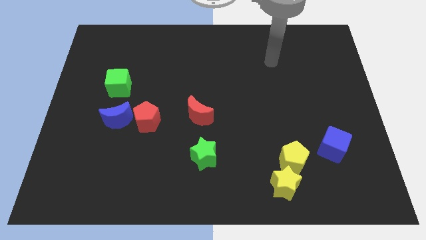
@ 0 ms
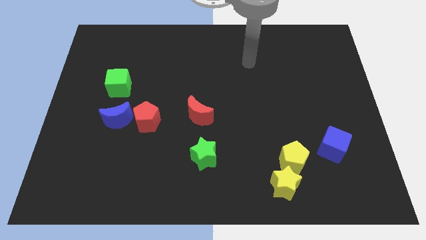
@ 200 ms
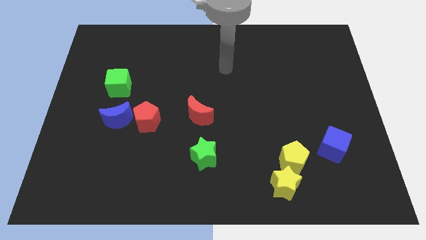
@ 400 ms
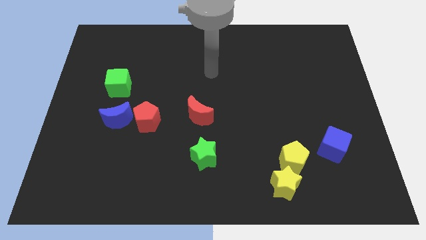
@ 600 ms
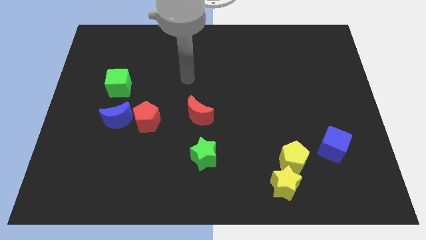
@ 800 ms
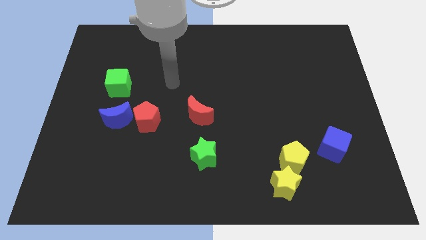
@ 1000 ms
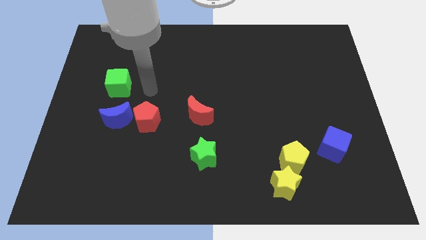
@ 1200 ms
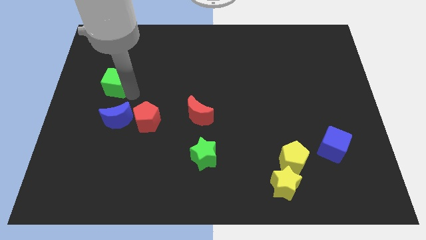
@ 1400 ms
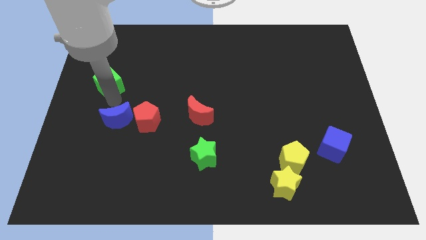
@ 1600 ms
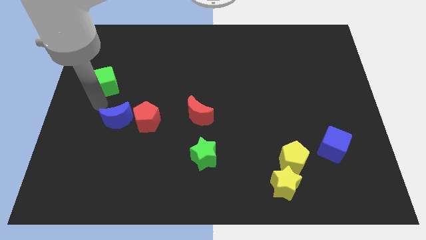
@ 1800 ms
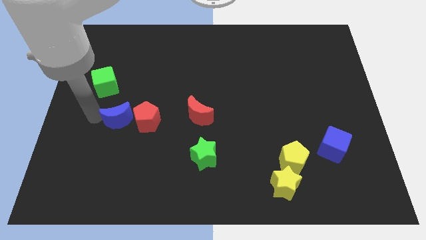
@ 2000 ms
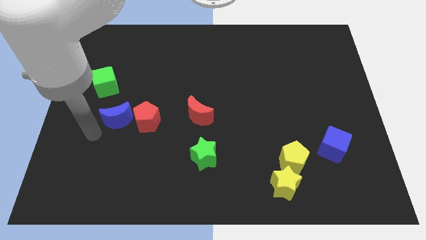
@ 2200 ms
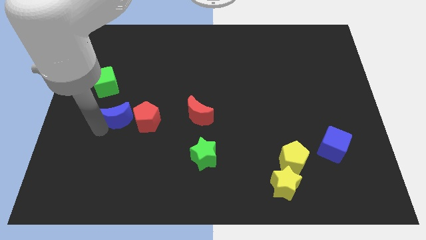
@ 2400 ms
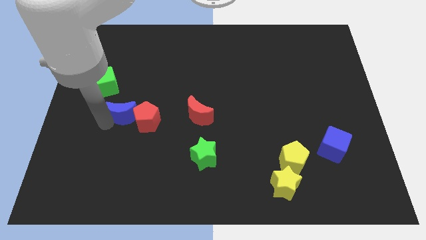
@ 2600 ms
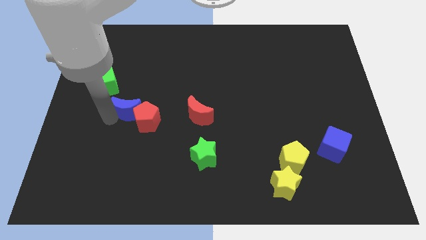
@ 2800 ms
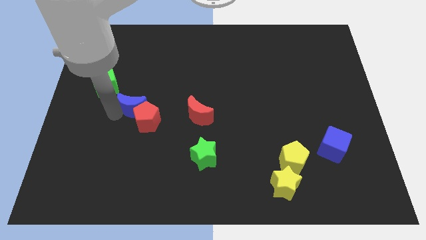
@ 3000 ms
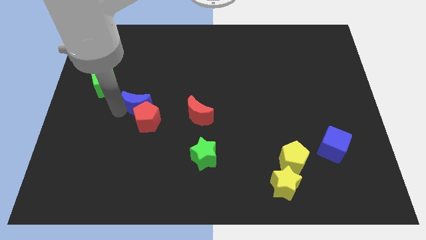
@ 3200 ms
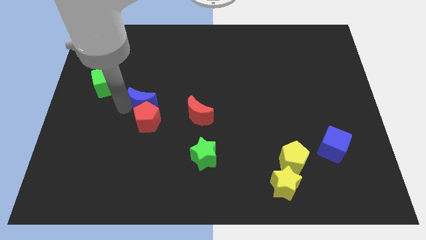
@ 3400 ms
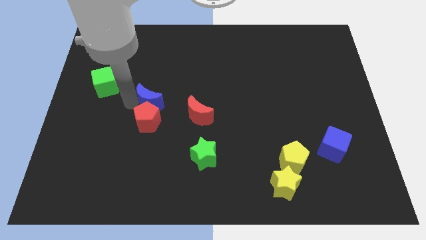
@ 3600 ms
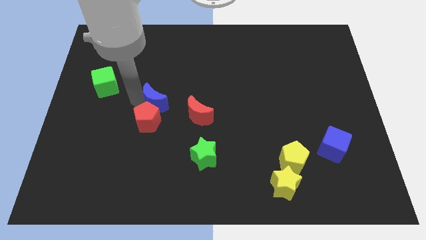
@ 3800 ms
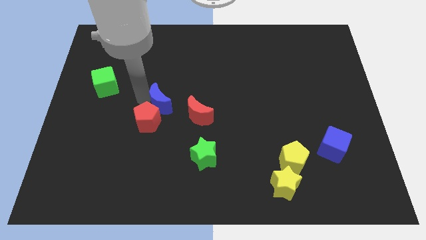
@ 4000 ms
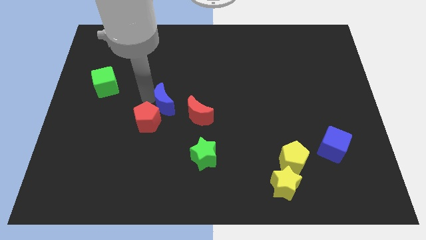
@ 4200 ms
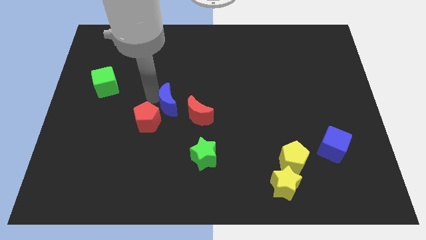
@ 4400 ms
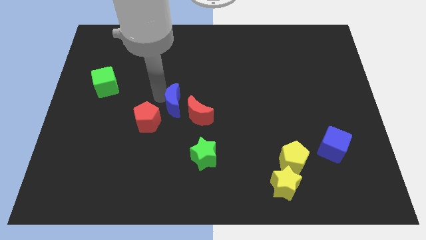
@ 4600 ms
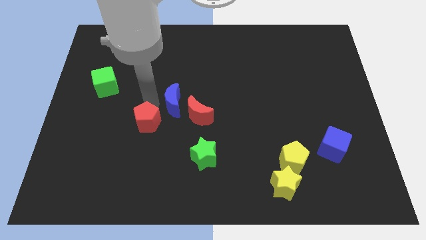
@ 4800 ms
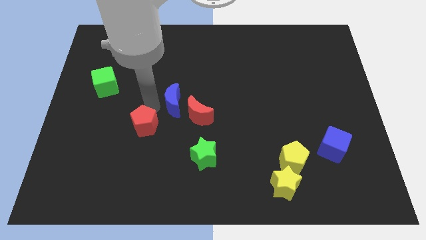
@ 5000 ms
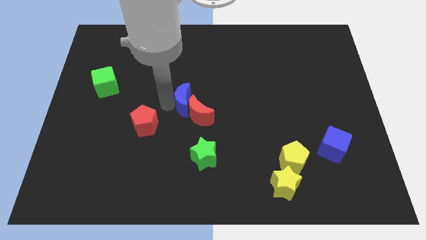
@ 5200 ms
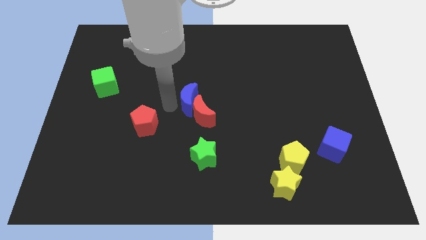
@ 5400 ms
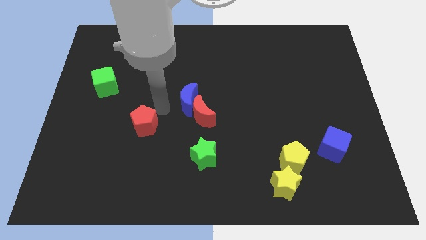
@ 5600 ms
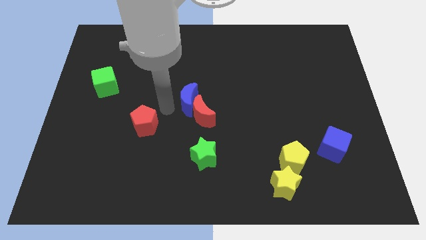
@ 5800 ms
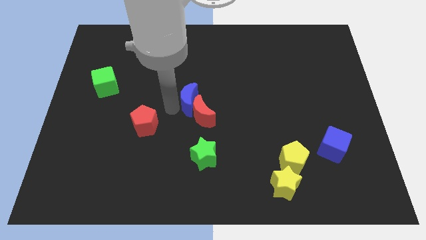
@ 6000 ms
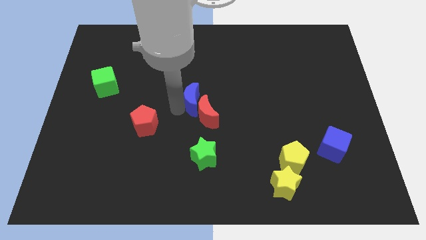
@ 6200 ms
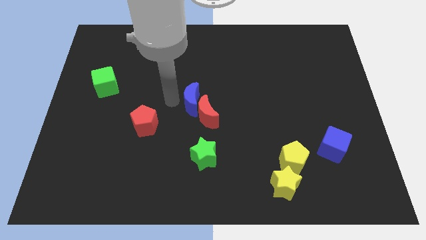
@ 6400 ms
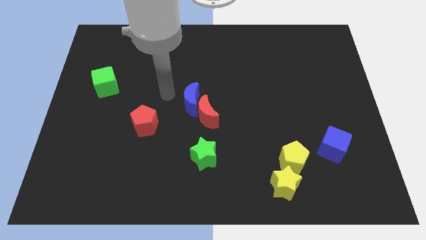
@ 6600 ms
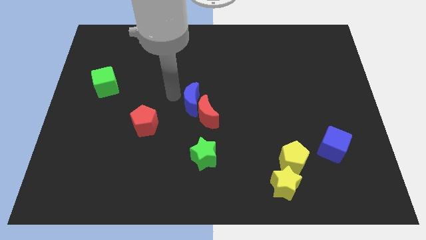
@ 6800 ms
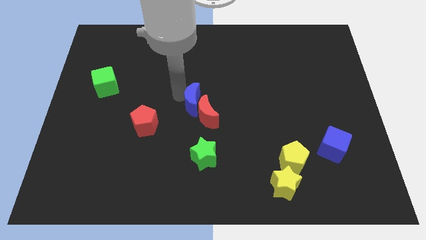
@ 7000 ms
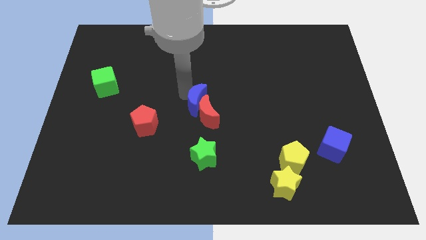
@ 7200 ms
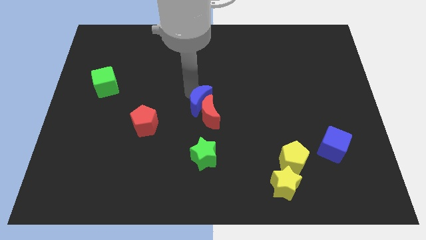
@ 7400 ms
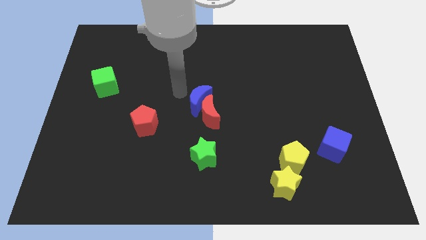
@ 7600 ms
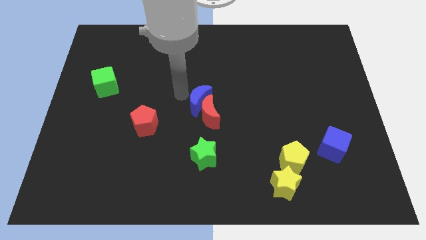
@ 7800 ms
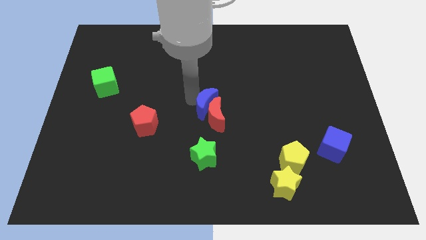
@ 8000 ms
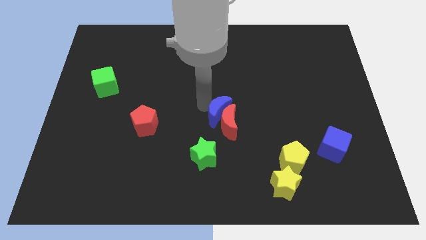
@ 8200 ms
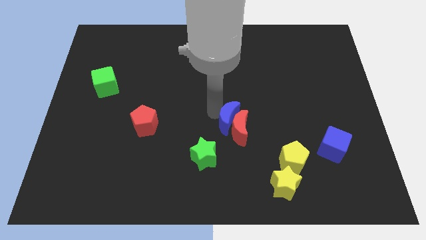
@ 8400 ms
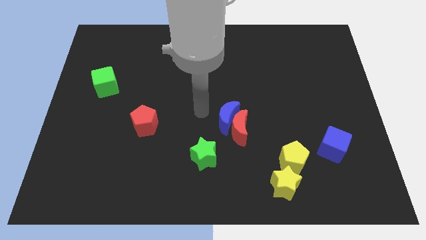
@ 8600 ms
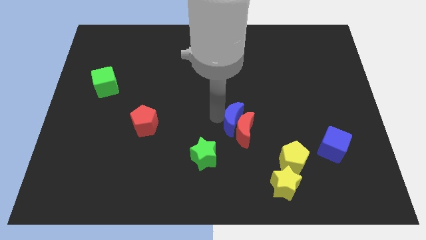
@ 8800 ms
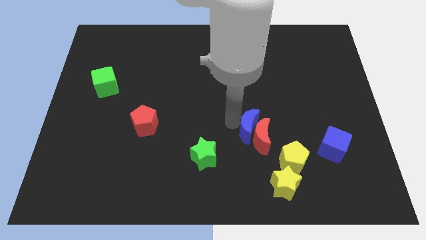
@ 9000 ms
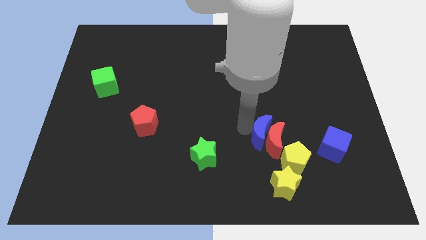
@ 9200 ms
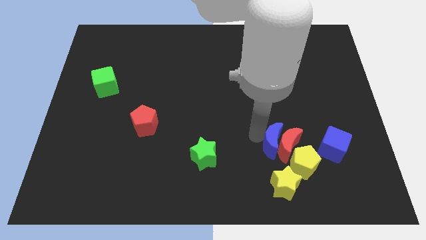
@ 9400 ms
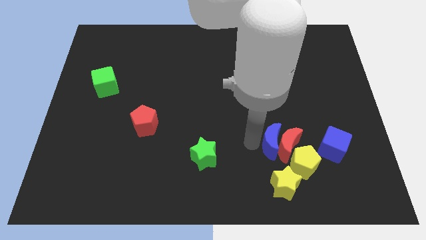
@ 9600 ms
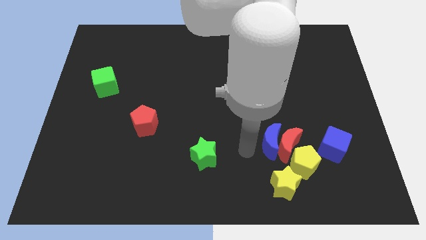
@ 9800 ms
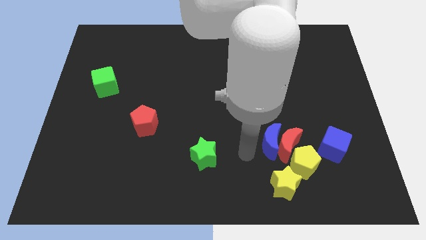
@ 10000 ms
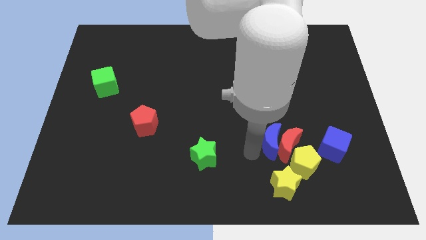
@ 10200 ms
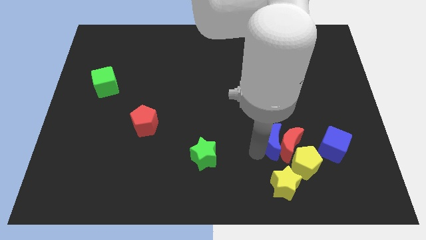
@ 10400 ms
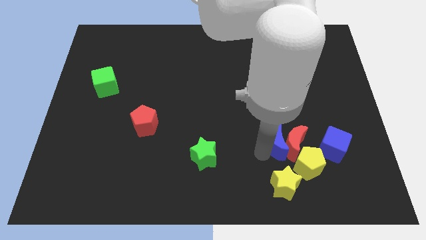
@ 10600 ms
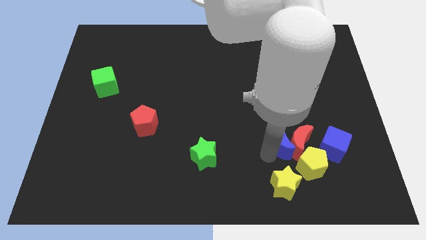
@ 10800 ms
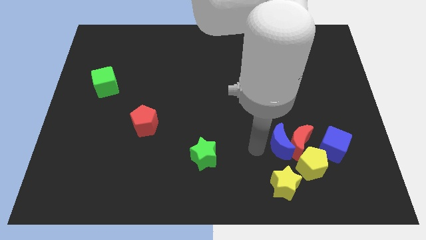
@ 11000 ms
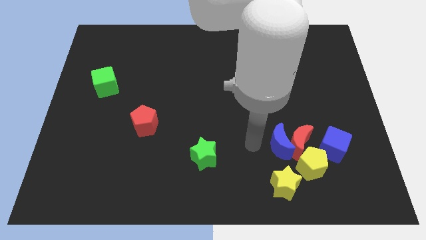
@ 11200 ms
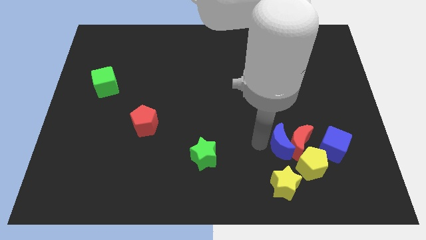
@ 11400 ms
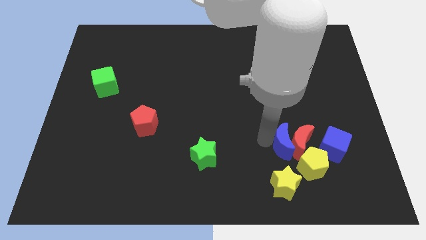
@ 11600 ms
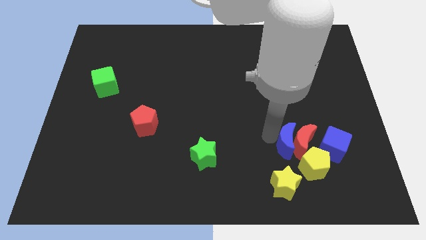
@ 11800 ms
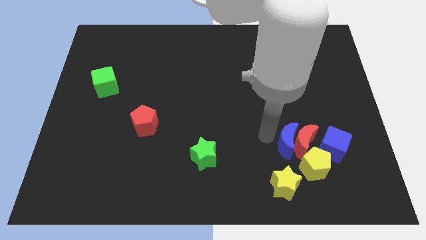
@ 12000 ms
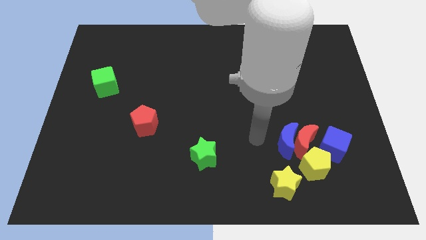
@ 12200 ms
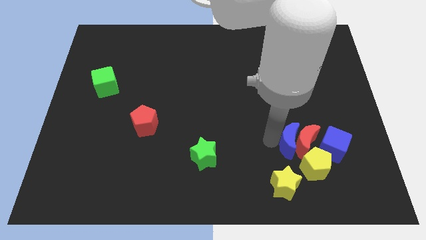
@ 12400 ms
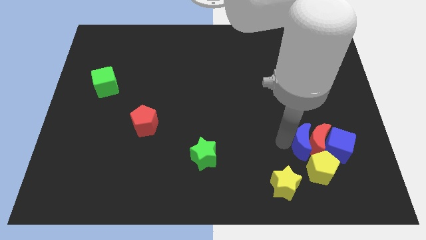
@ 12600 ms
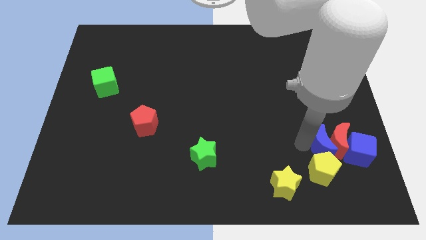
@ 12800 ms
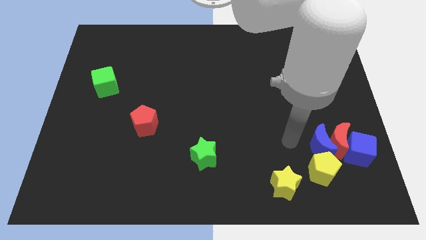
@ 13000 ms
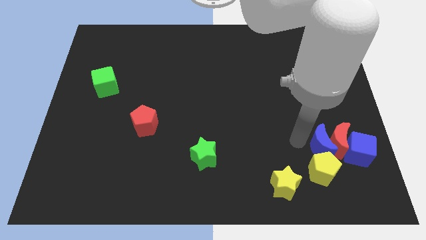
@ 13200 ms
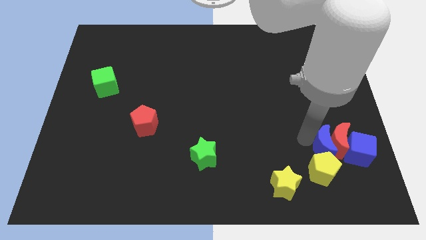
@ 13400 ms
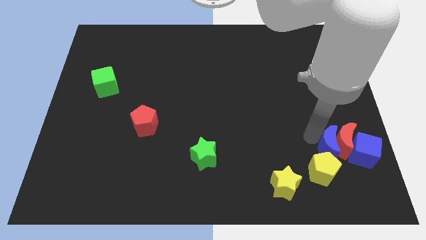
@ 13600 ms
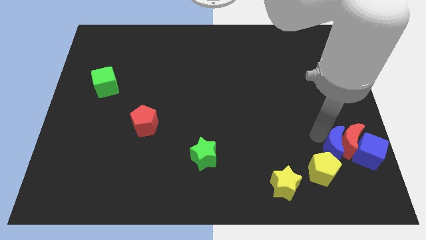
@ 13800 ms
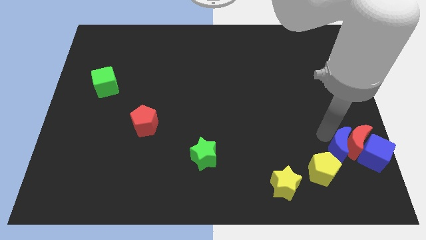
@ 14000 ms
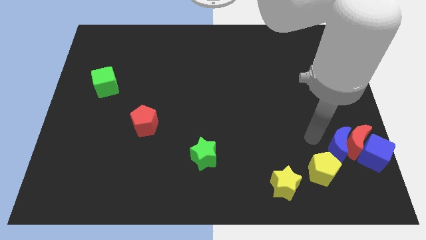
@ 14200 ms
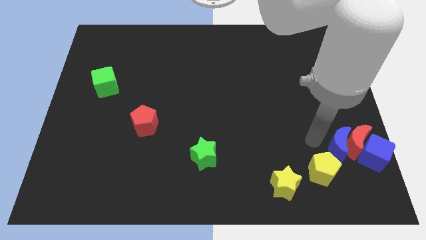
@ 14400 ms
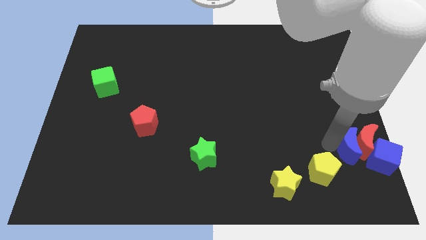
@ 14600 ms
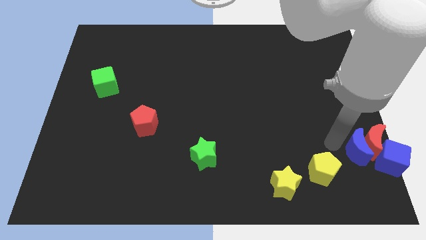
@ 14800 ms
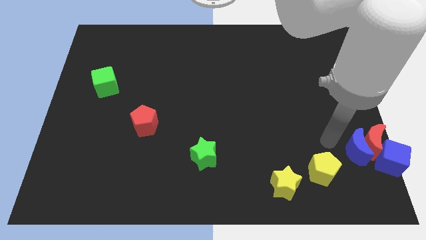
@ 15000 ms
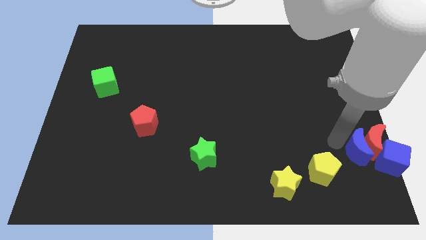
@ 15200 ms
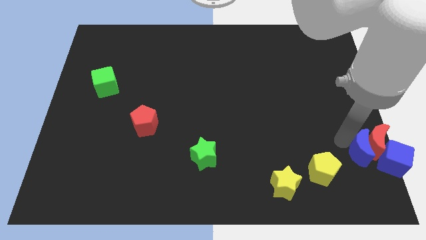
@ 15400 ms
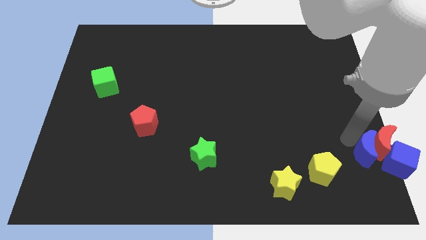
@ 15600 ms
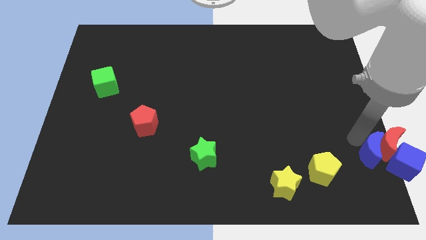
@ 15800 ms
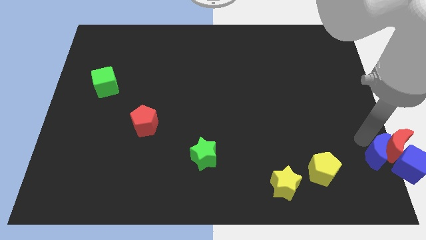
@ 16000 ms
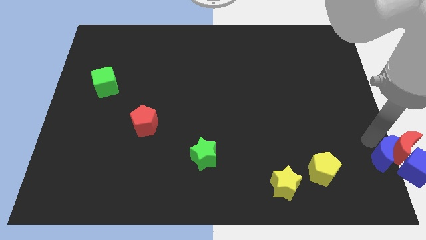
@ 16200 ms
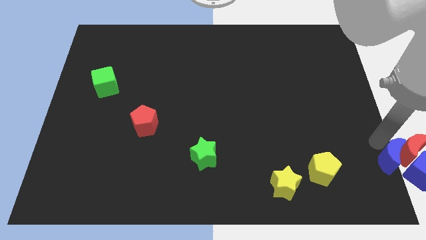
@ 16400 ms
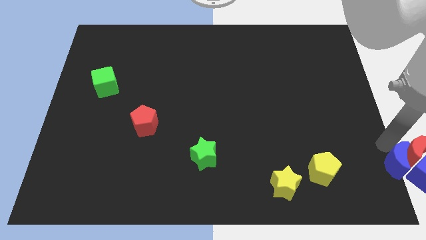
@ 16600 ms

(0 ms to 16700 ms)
put the blue moon towards the blue cube
